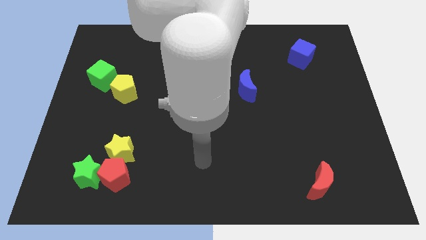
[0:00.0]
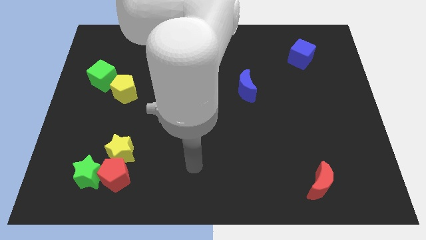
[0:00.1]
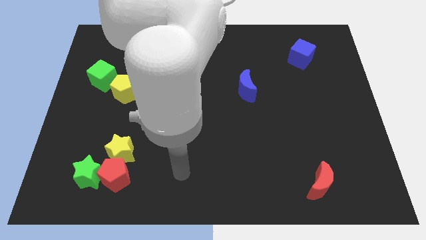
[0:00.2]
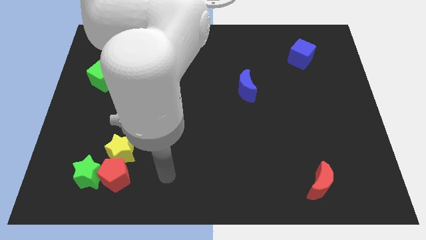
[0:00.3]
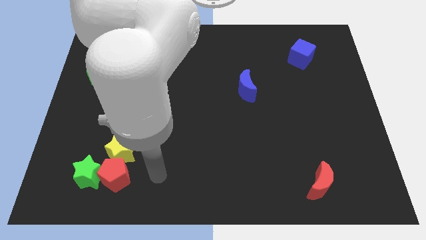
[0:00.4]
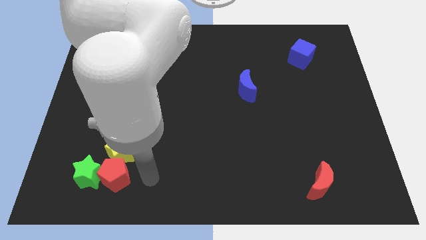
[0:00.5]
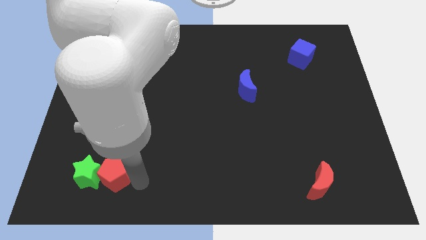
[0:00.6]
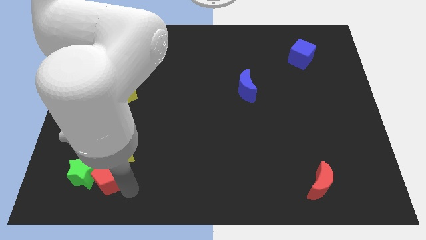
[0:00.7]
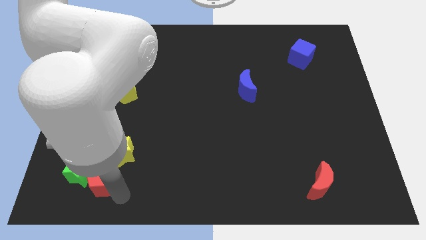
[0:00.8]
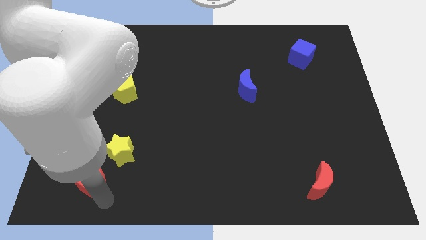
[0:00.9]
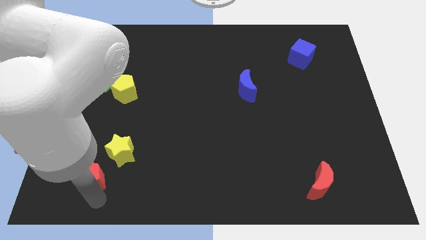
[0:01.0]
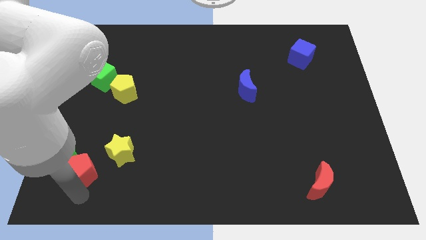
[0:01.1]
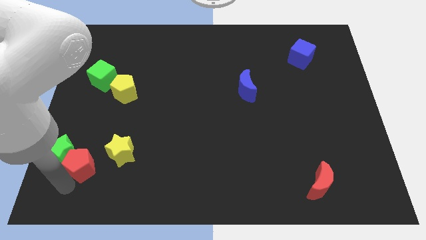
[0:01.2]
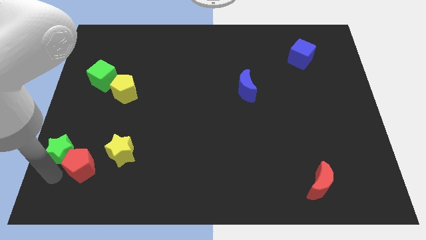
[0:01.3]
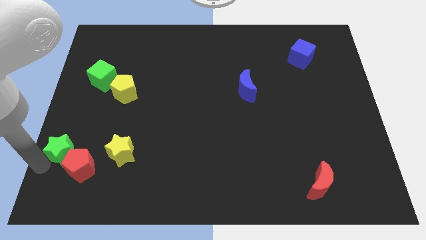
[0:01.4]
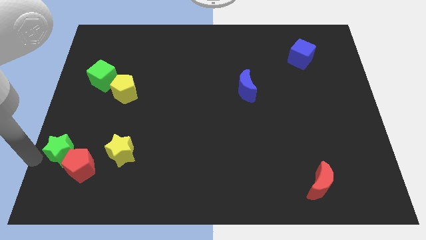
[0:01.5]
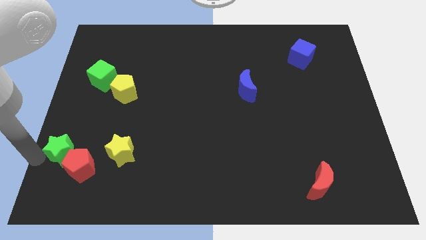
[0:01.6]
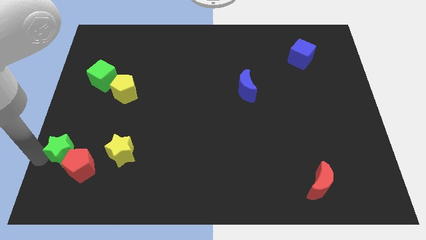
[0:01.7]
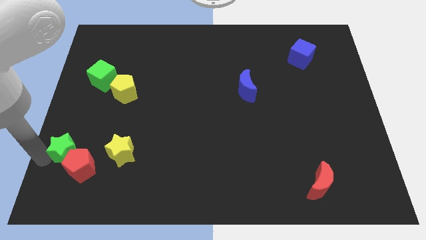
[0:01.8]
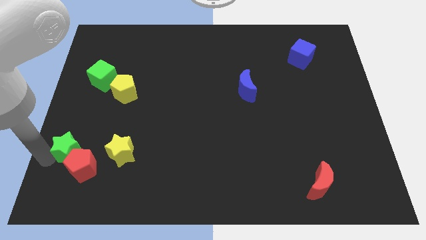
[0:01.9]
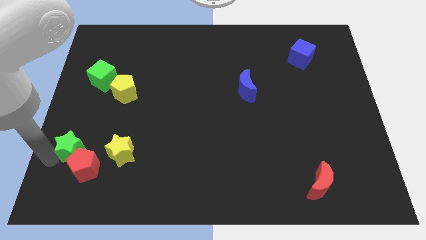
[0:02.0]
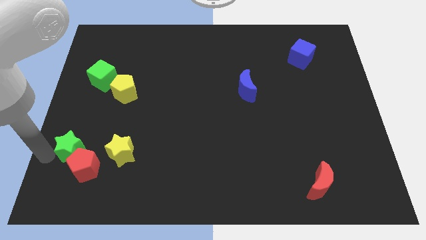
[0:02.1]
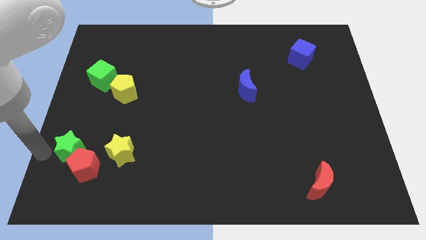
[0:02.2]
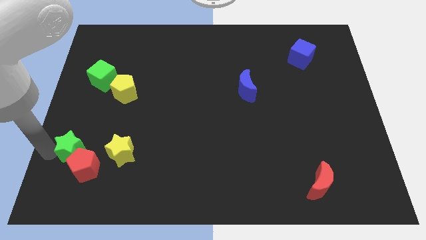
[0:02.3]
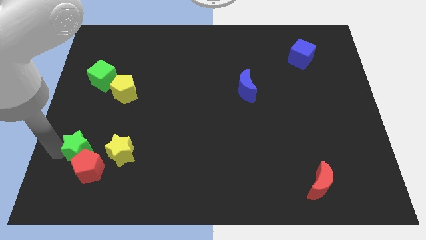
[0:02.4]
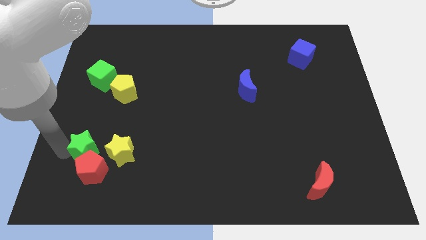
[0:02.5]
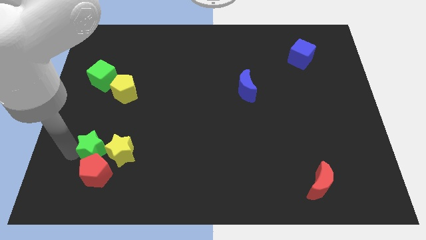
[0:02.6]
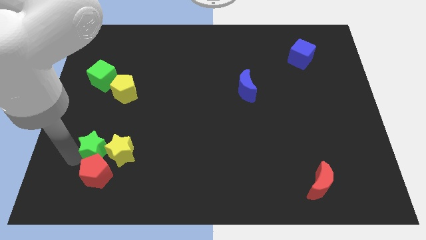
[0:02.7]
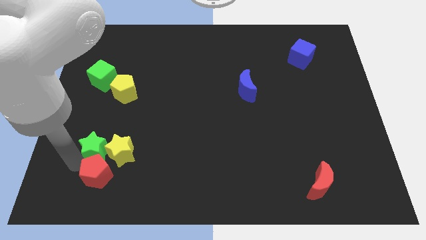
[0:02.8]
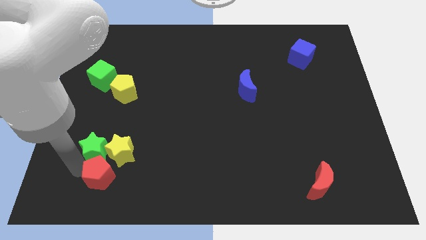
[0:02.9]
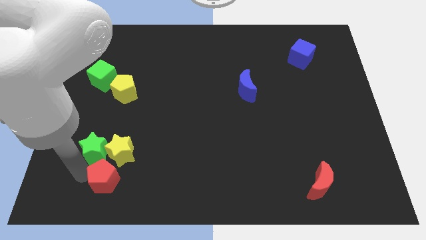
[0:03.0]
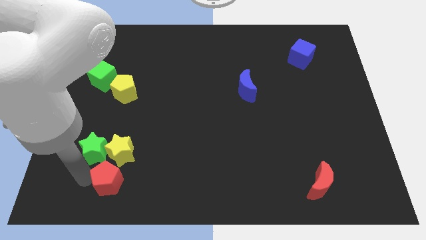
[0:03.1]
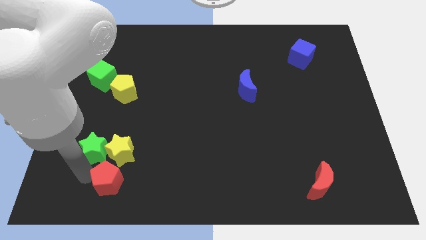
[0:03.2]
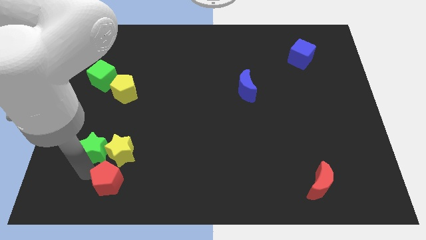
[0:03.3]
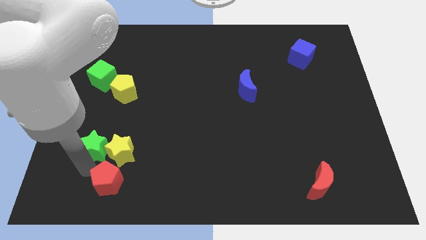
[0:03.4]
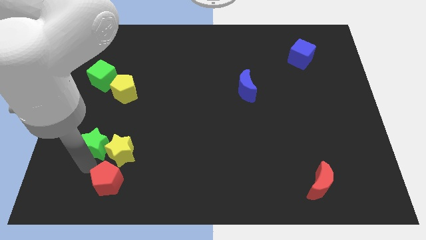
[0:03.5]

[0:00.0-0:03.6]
move the green star slightly up

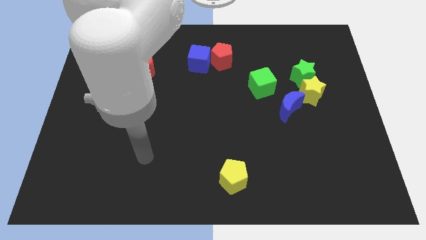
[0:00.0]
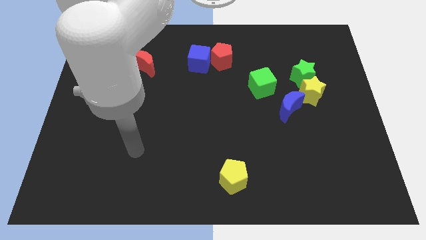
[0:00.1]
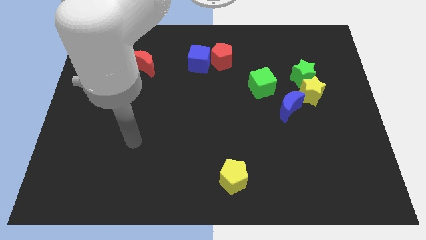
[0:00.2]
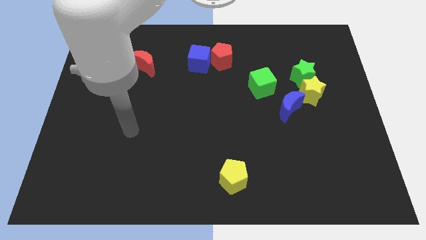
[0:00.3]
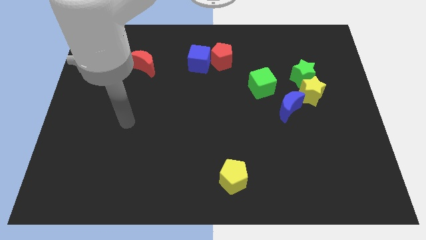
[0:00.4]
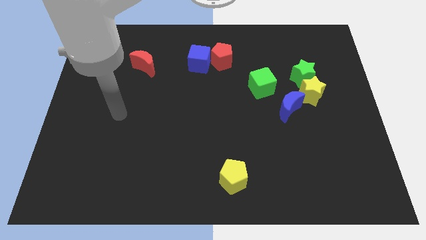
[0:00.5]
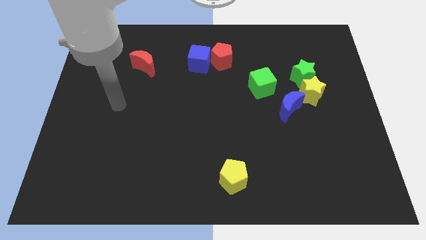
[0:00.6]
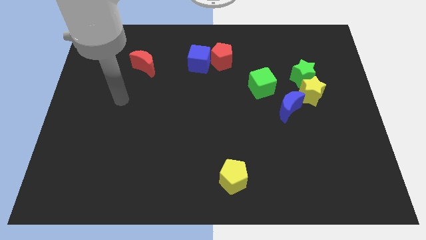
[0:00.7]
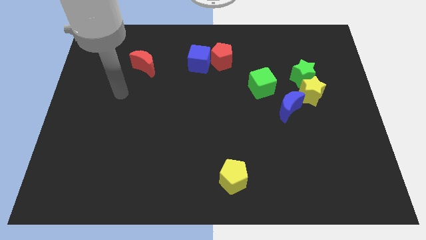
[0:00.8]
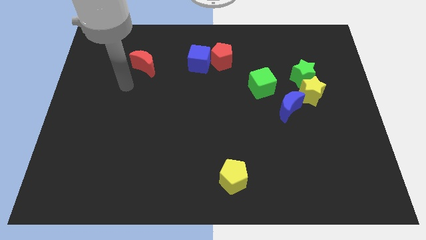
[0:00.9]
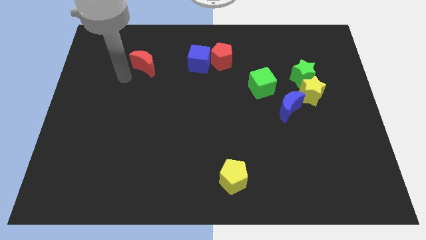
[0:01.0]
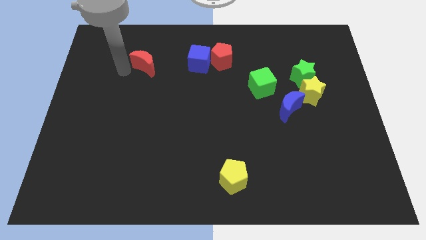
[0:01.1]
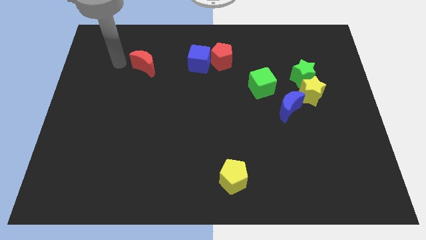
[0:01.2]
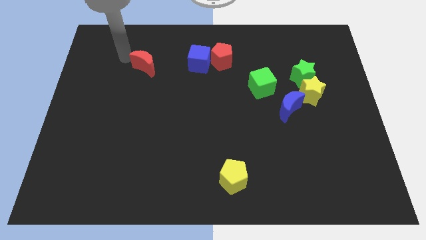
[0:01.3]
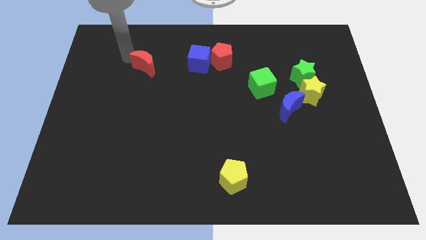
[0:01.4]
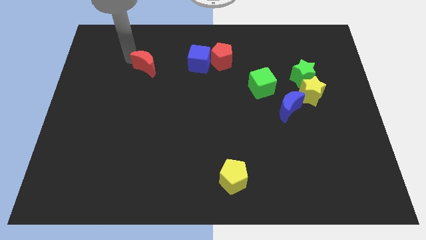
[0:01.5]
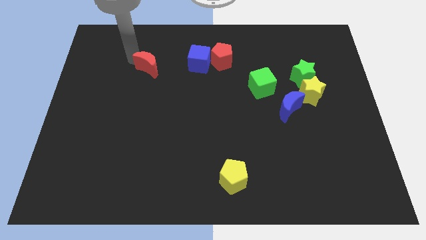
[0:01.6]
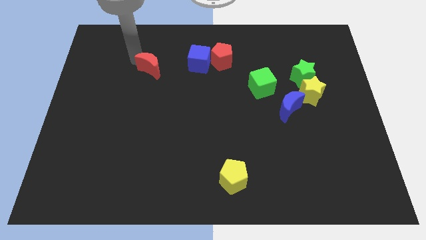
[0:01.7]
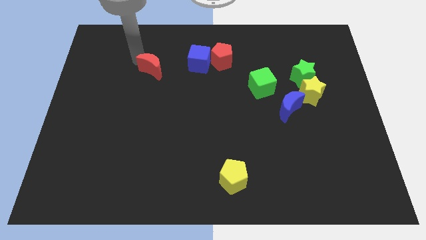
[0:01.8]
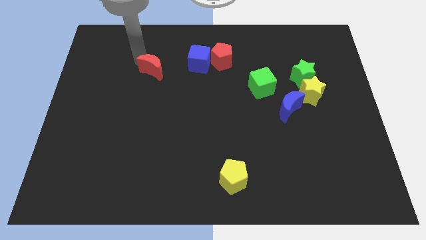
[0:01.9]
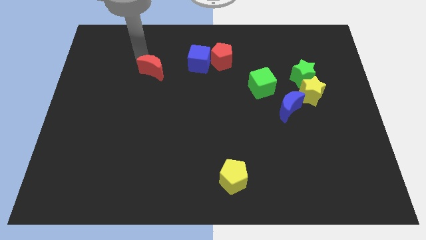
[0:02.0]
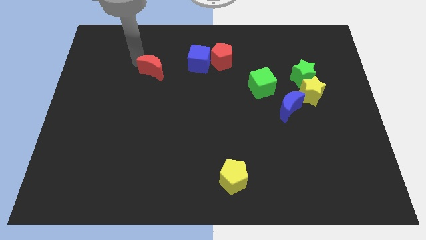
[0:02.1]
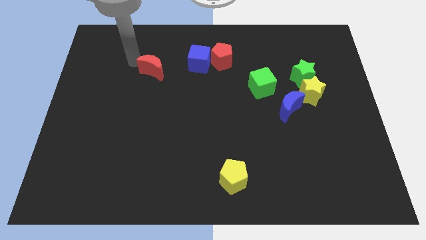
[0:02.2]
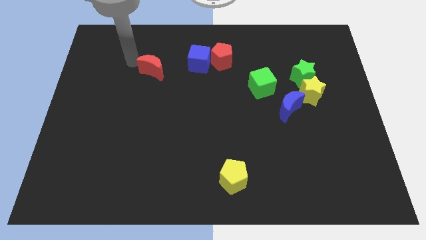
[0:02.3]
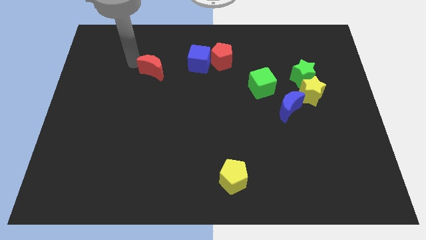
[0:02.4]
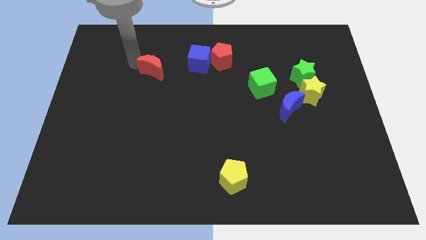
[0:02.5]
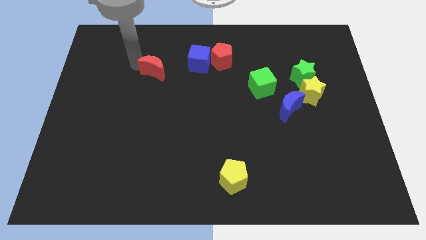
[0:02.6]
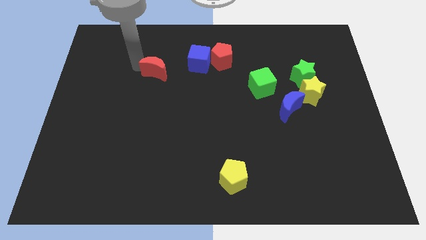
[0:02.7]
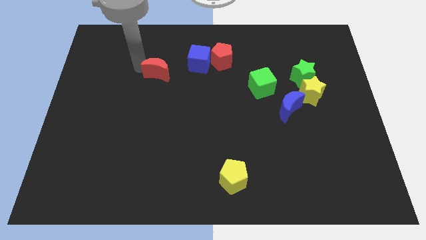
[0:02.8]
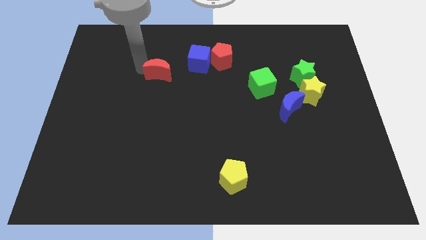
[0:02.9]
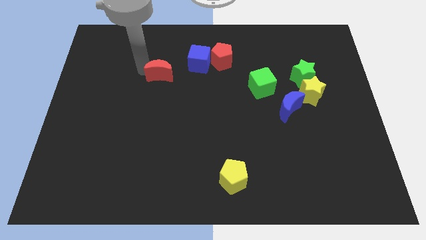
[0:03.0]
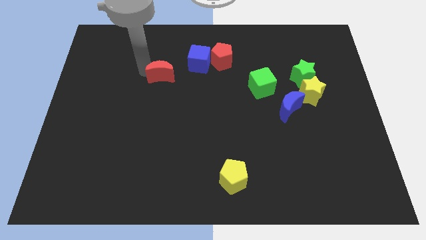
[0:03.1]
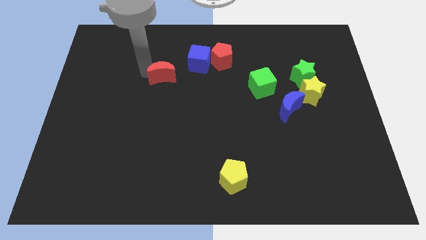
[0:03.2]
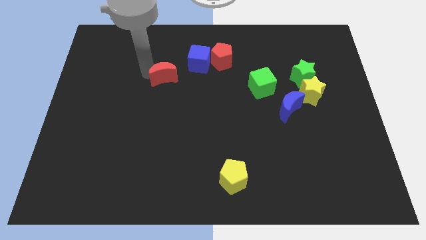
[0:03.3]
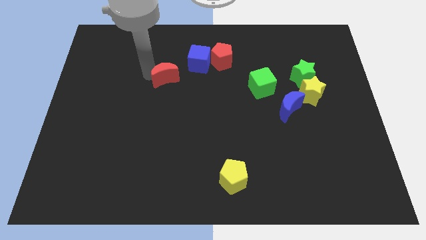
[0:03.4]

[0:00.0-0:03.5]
move the red moon slightly down and to the right

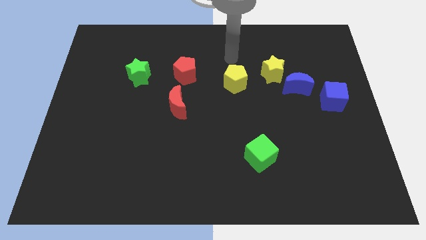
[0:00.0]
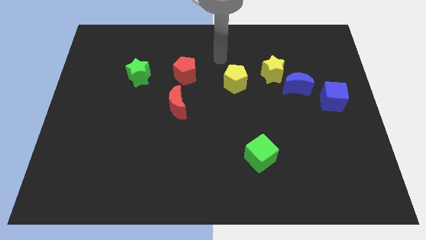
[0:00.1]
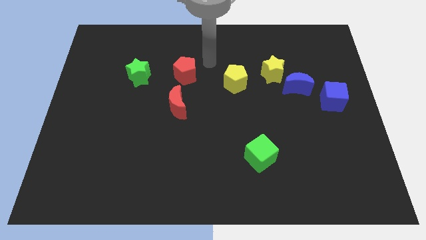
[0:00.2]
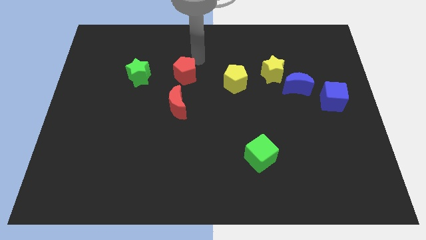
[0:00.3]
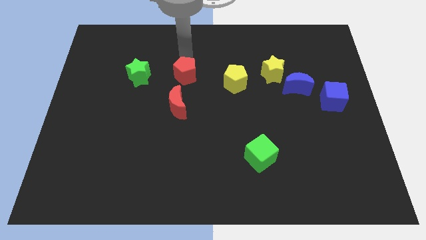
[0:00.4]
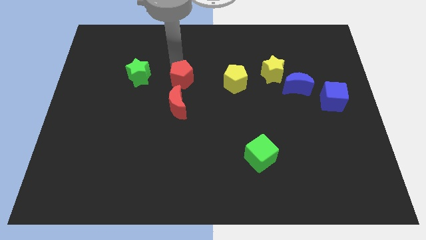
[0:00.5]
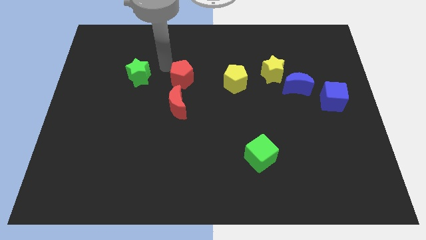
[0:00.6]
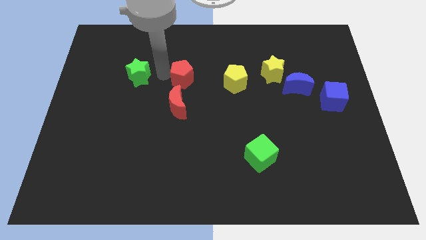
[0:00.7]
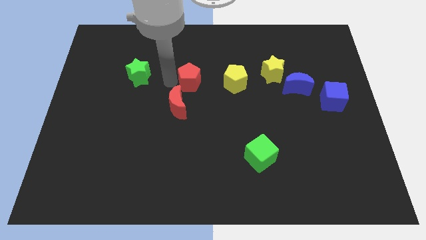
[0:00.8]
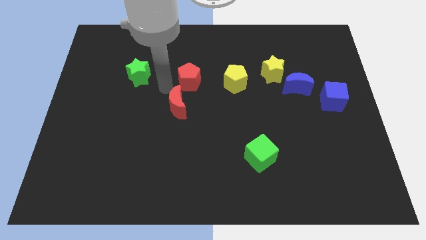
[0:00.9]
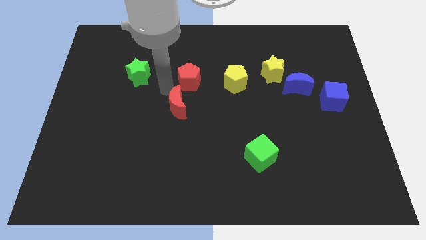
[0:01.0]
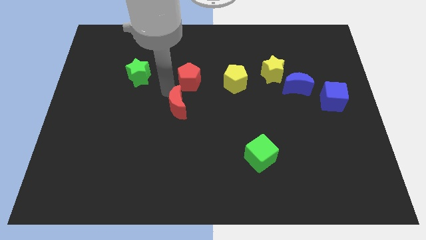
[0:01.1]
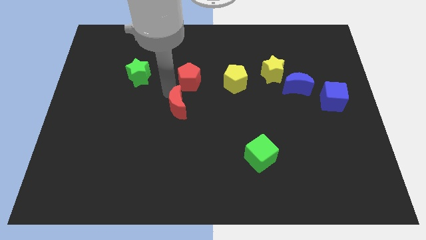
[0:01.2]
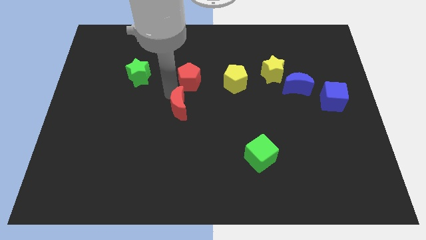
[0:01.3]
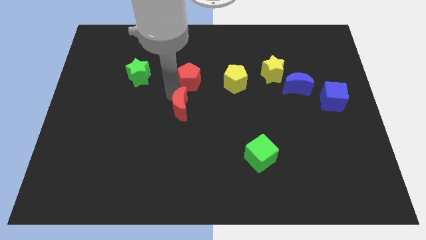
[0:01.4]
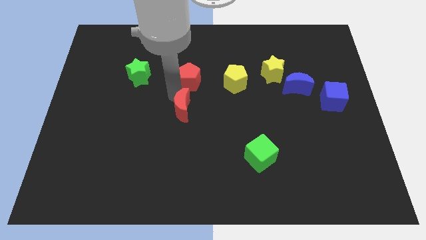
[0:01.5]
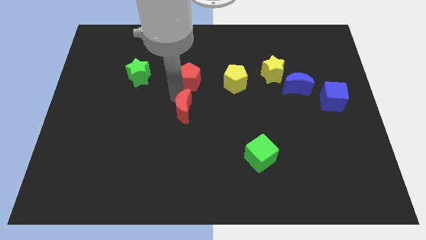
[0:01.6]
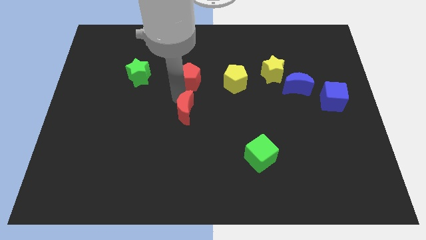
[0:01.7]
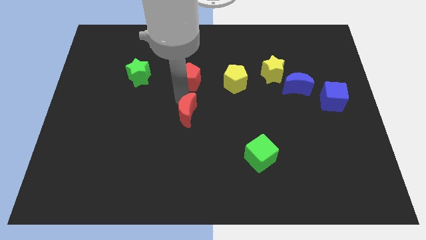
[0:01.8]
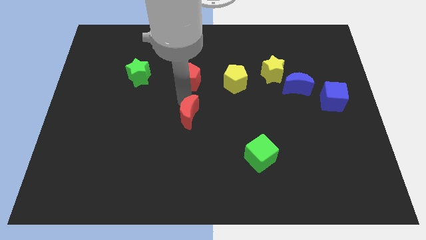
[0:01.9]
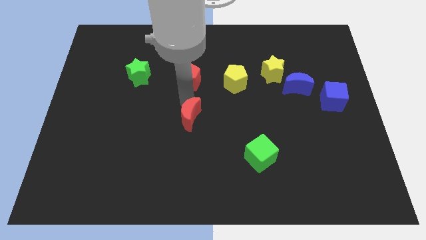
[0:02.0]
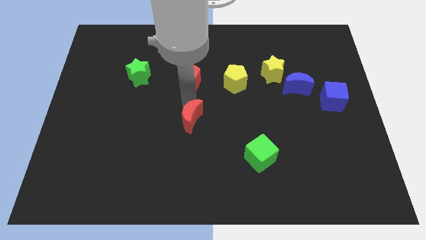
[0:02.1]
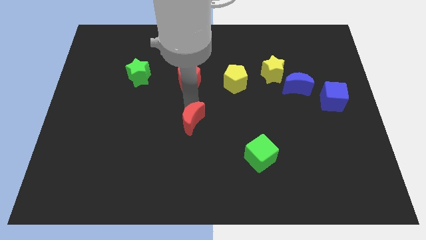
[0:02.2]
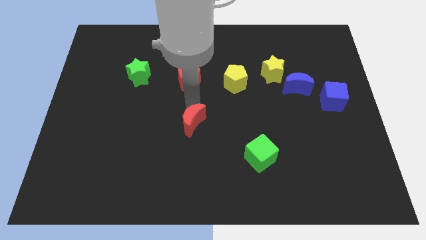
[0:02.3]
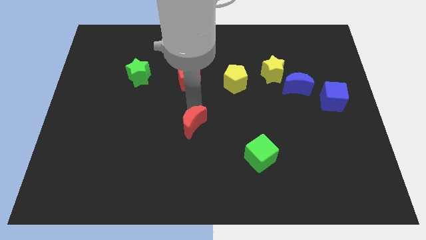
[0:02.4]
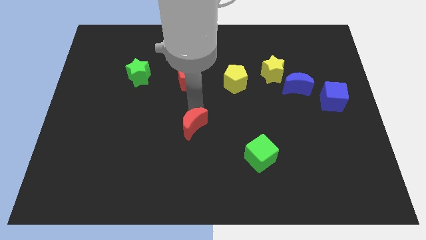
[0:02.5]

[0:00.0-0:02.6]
slide the red moon a little diagonally downwards and right
